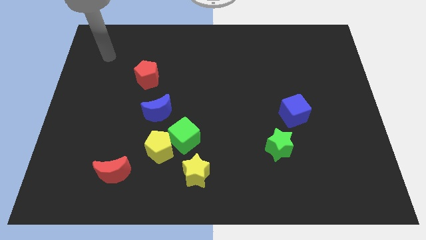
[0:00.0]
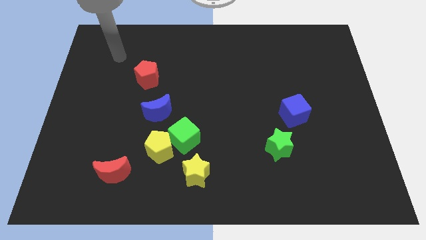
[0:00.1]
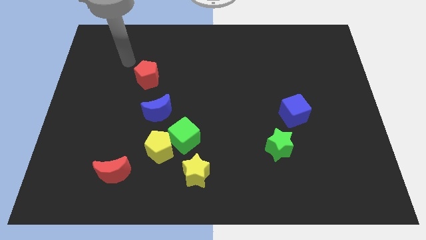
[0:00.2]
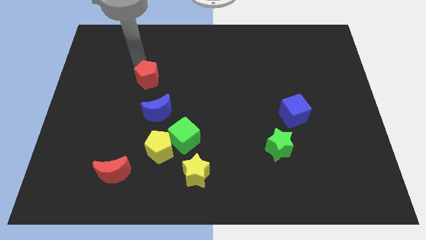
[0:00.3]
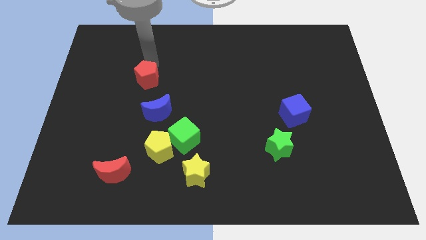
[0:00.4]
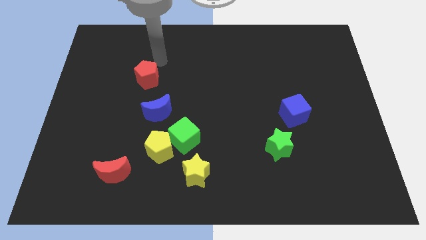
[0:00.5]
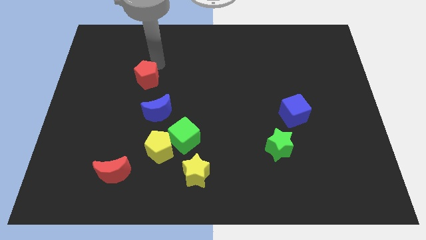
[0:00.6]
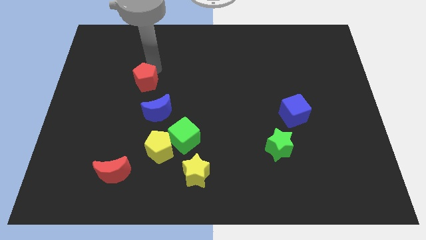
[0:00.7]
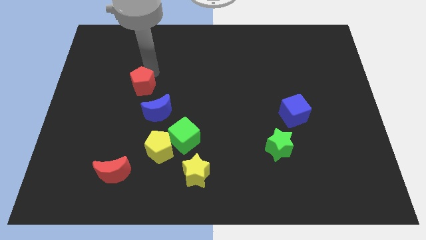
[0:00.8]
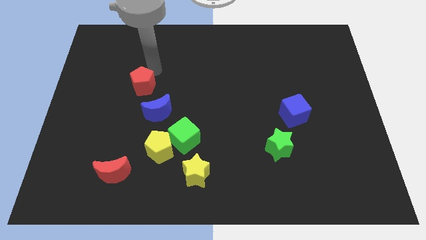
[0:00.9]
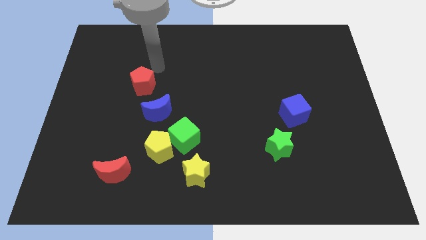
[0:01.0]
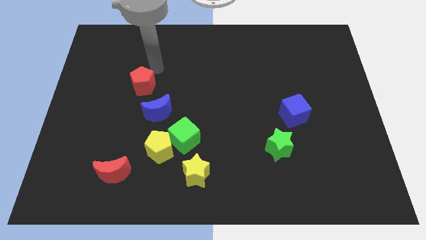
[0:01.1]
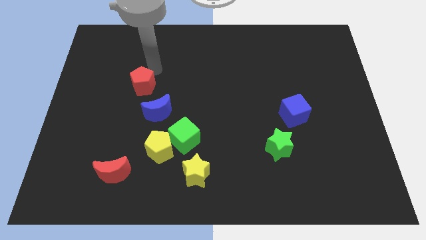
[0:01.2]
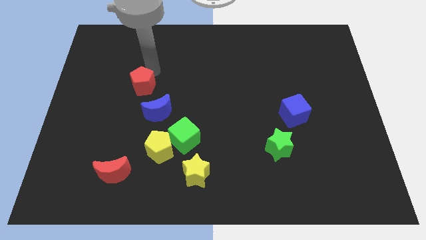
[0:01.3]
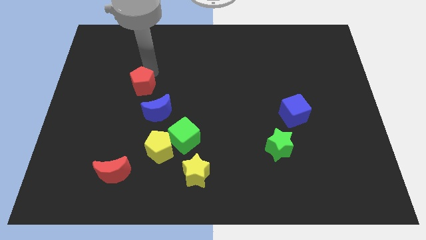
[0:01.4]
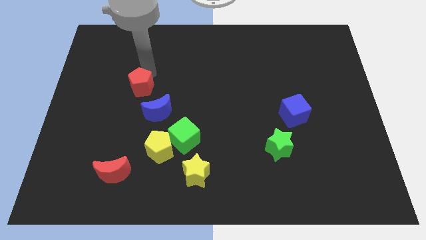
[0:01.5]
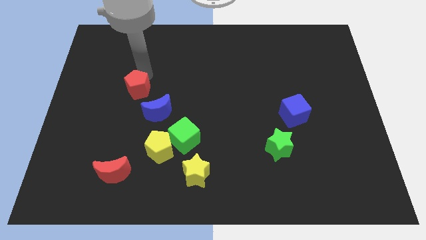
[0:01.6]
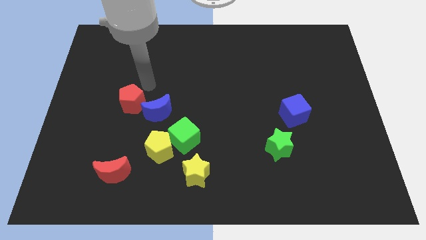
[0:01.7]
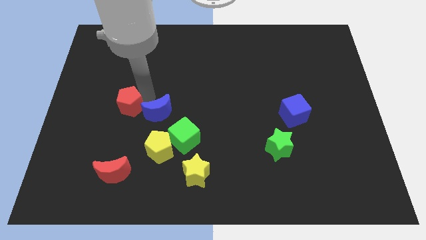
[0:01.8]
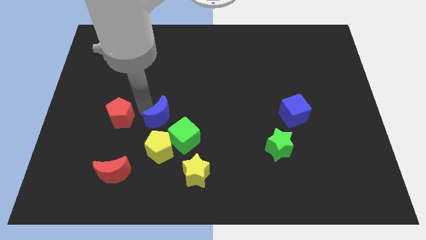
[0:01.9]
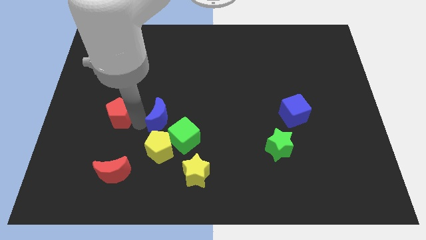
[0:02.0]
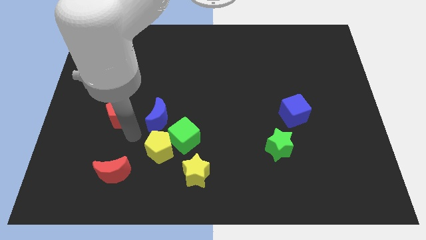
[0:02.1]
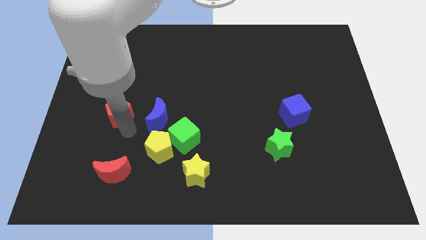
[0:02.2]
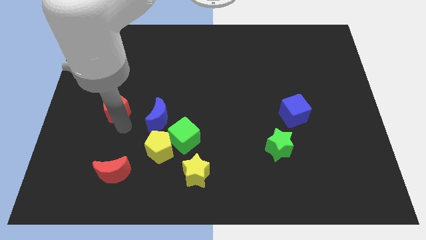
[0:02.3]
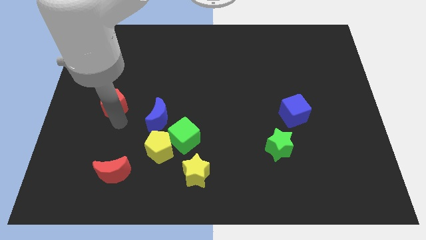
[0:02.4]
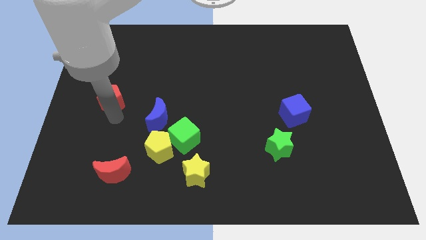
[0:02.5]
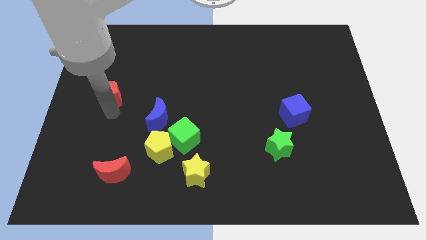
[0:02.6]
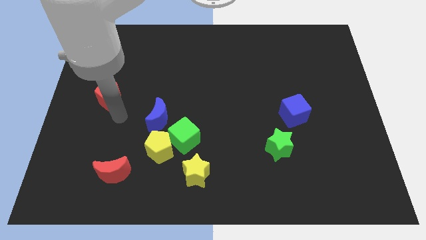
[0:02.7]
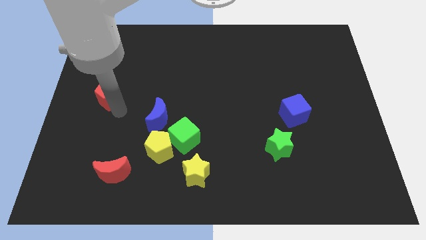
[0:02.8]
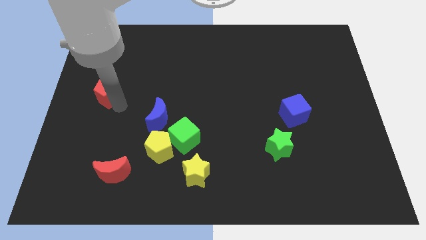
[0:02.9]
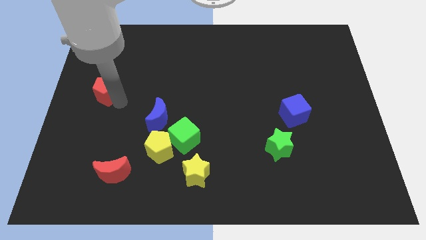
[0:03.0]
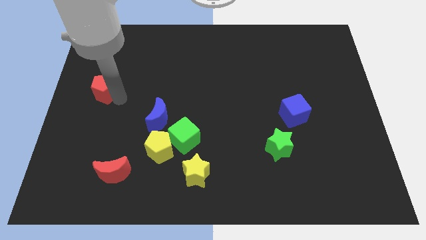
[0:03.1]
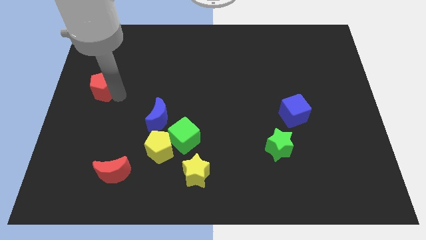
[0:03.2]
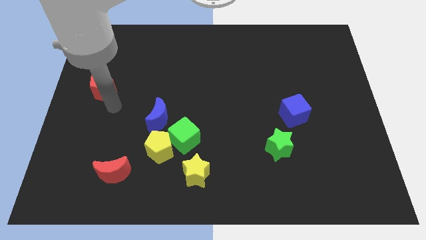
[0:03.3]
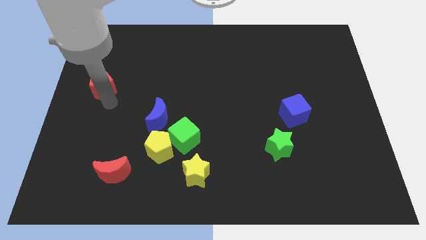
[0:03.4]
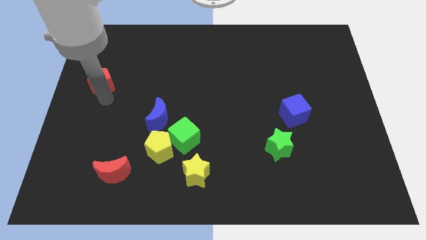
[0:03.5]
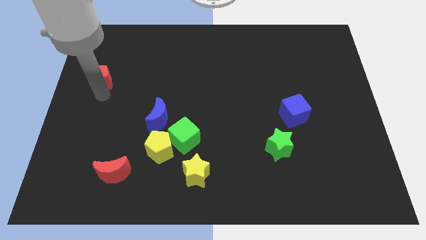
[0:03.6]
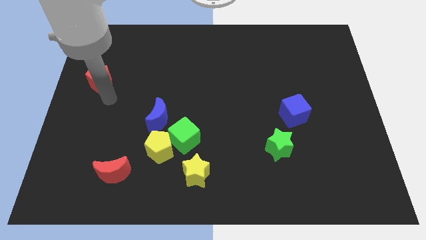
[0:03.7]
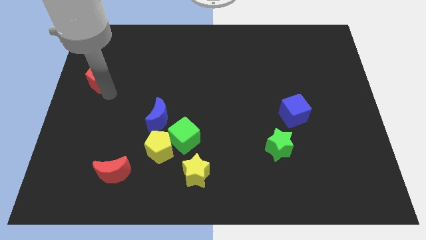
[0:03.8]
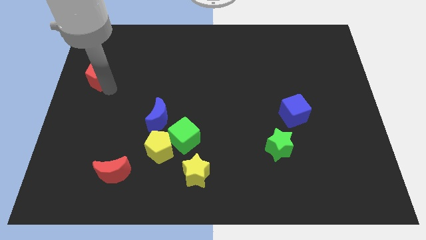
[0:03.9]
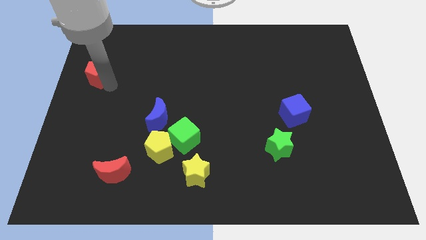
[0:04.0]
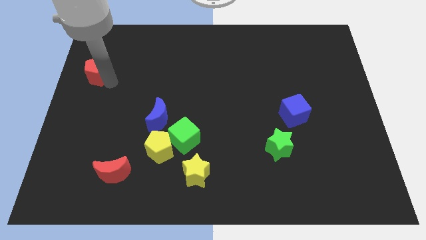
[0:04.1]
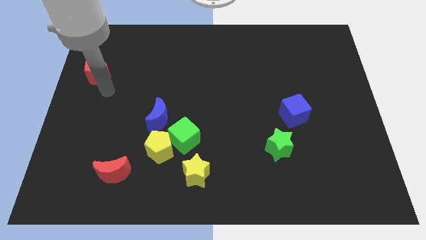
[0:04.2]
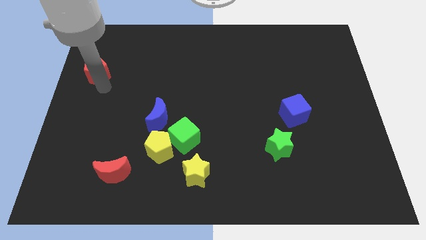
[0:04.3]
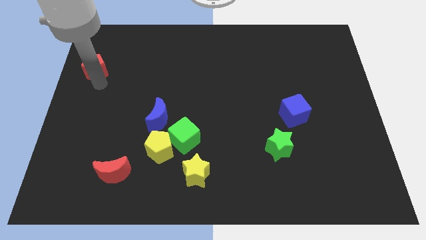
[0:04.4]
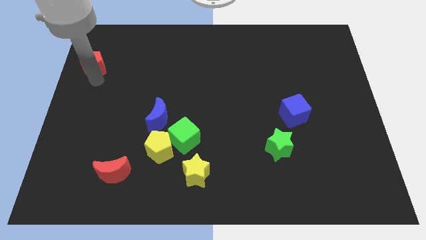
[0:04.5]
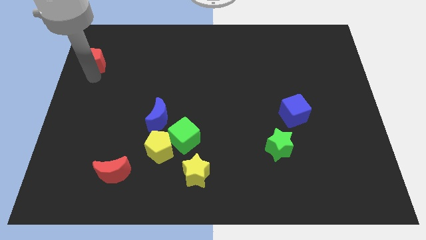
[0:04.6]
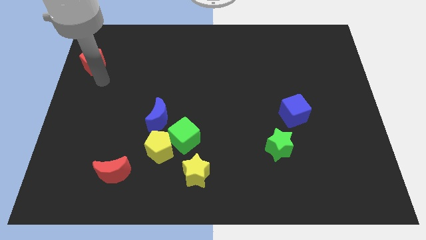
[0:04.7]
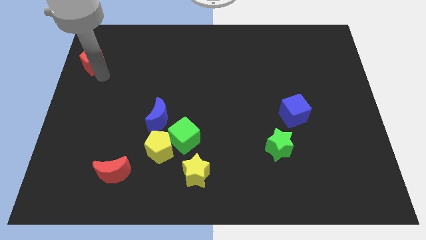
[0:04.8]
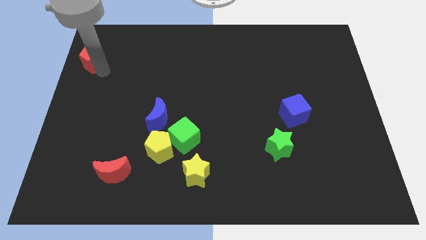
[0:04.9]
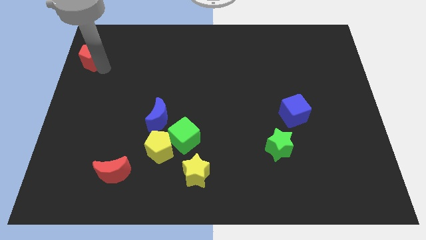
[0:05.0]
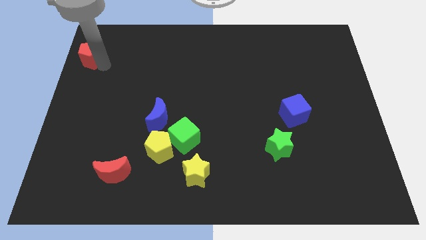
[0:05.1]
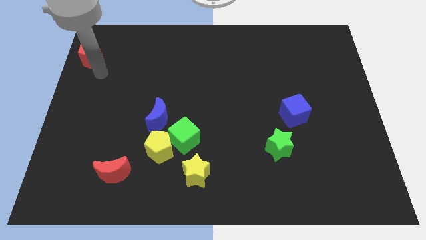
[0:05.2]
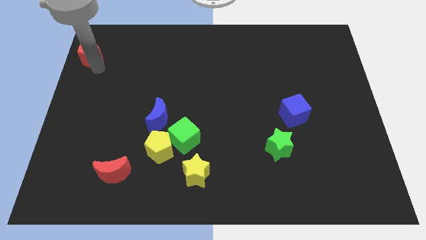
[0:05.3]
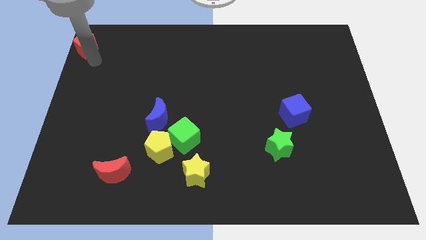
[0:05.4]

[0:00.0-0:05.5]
slide the red pentagon to the top left of the board

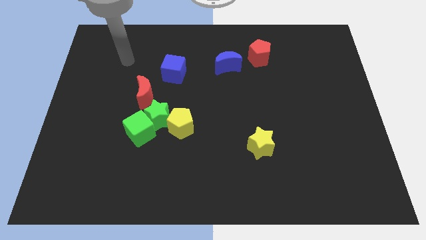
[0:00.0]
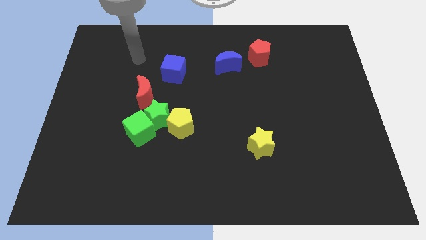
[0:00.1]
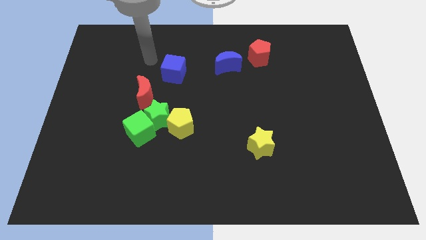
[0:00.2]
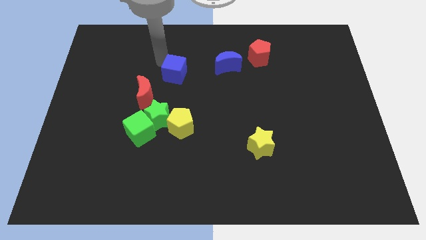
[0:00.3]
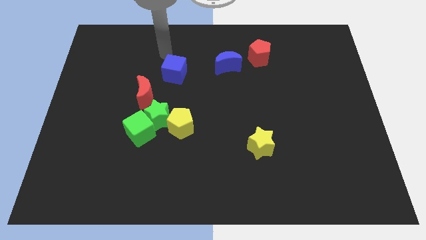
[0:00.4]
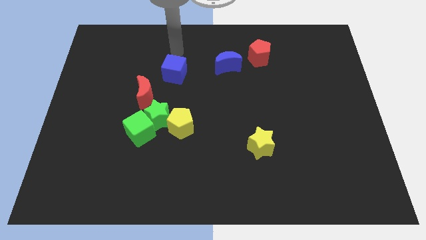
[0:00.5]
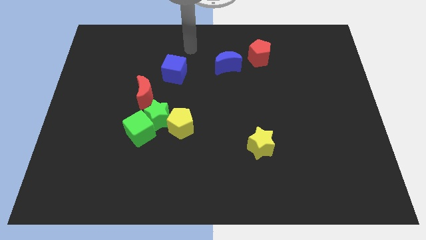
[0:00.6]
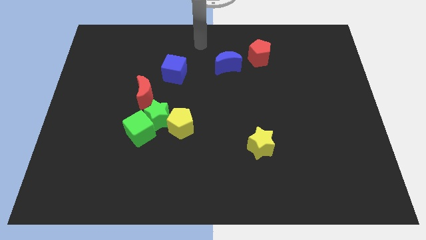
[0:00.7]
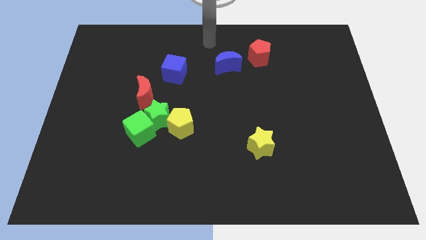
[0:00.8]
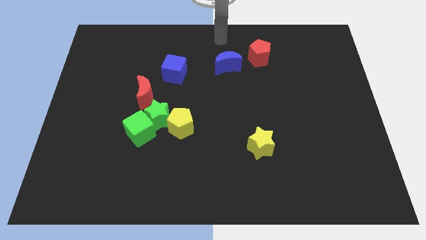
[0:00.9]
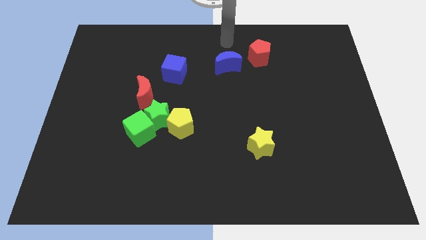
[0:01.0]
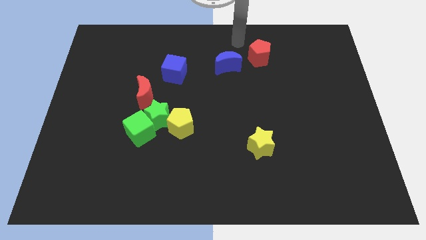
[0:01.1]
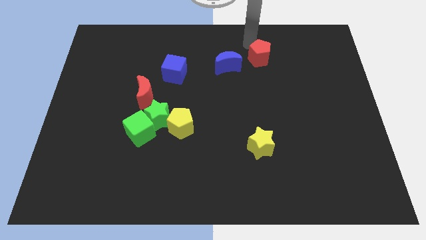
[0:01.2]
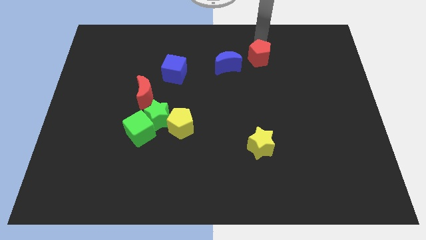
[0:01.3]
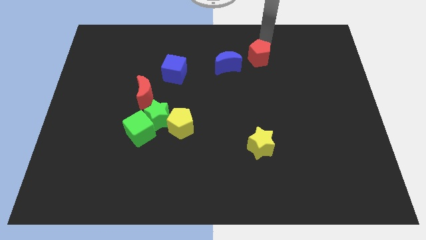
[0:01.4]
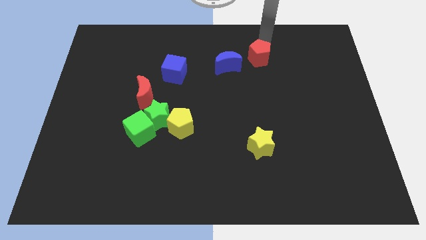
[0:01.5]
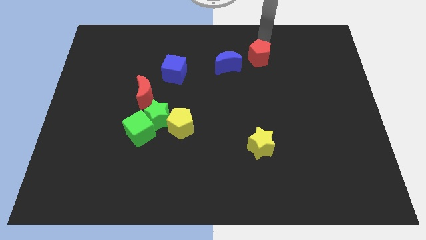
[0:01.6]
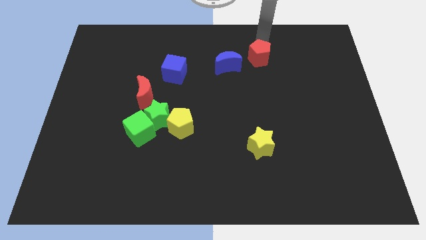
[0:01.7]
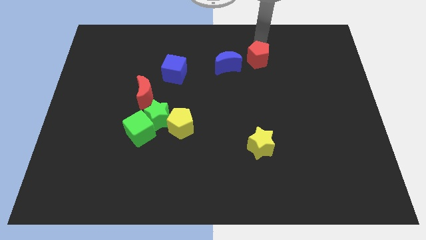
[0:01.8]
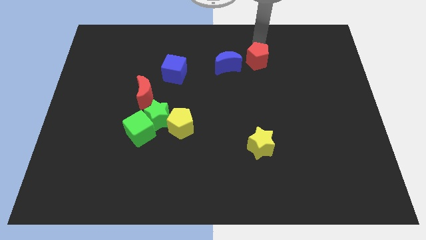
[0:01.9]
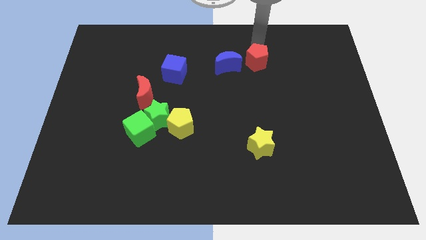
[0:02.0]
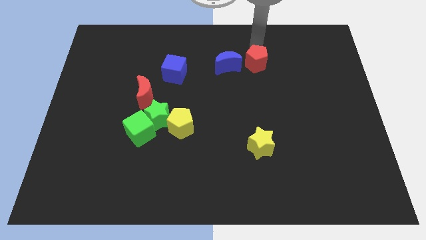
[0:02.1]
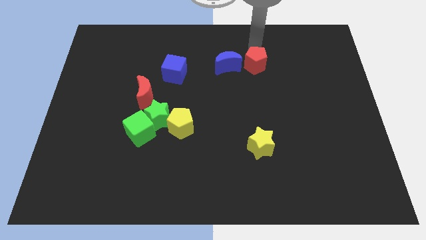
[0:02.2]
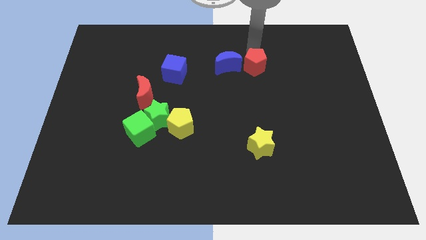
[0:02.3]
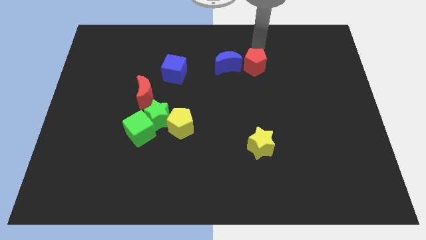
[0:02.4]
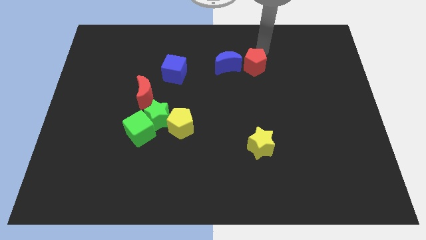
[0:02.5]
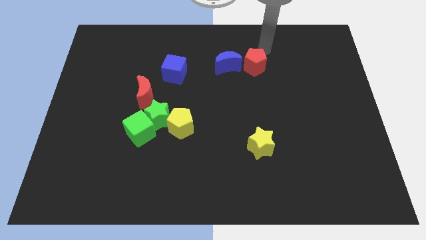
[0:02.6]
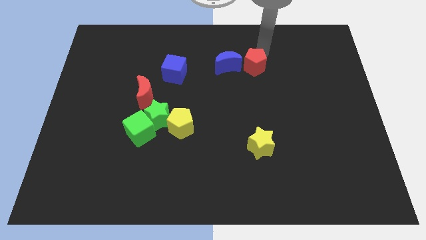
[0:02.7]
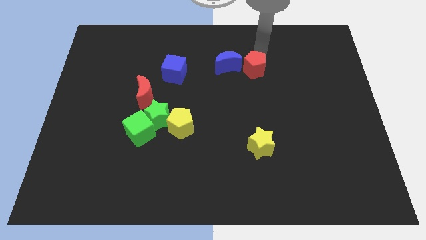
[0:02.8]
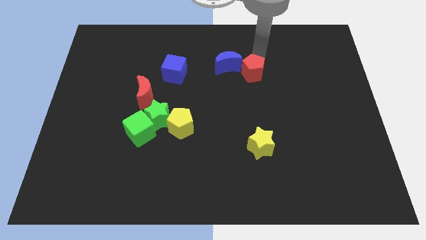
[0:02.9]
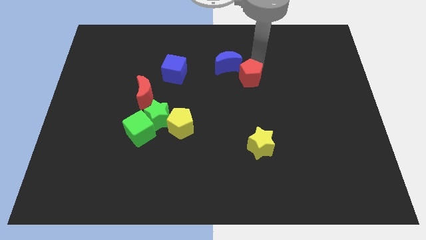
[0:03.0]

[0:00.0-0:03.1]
move the red pentagon to the center of the board
